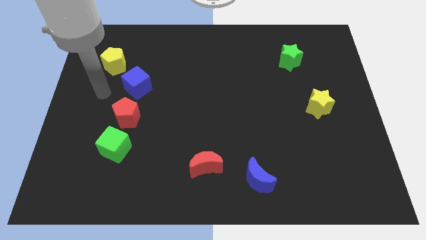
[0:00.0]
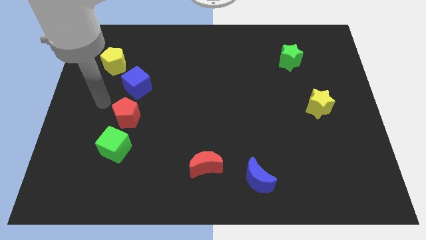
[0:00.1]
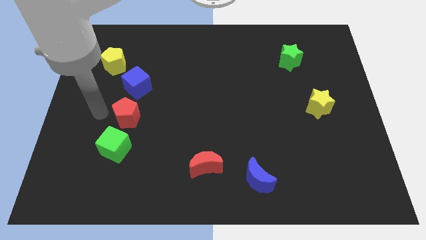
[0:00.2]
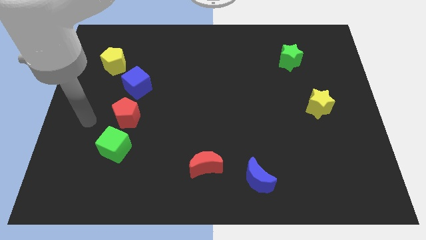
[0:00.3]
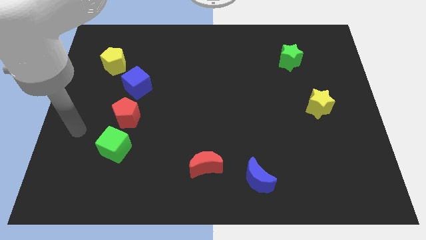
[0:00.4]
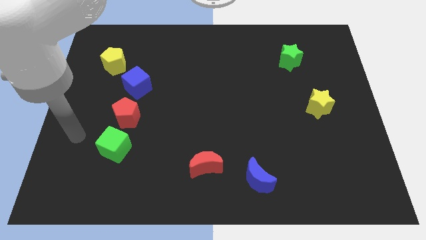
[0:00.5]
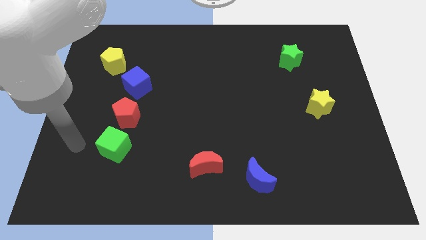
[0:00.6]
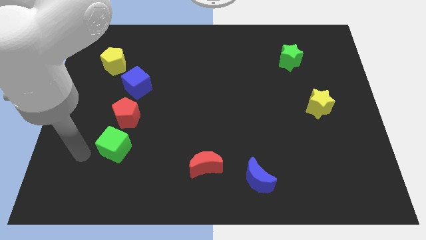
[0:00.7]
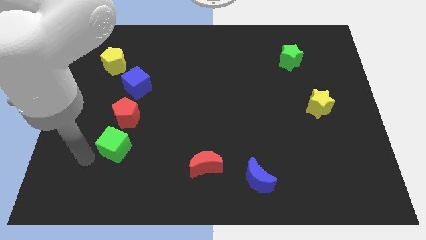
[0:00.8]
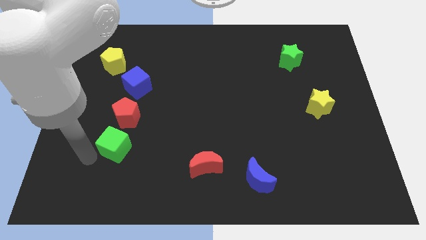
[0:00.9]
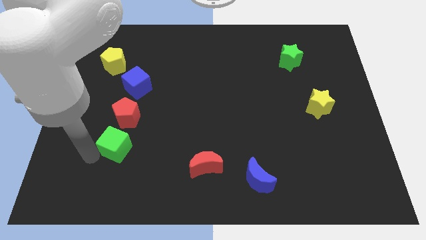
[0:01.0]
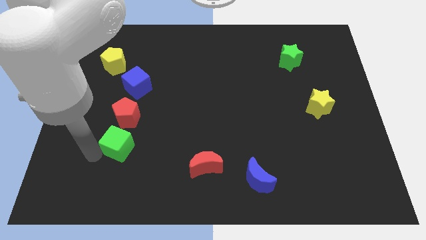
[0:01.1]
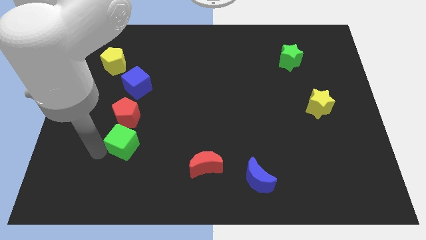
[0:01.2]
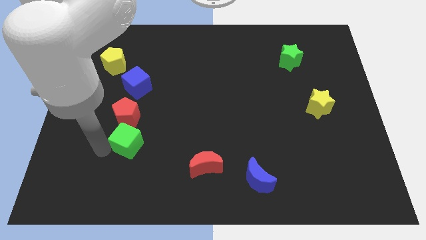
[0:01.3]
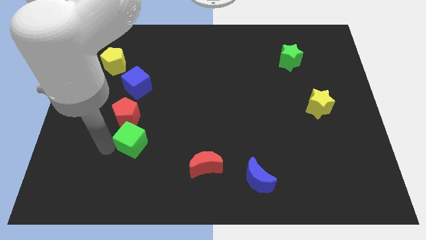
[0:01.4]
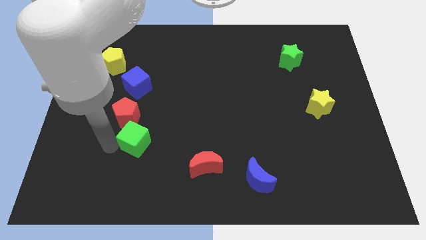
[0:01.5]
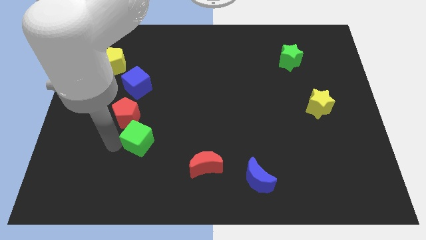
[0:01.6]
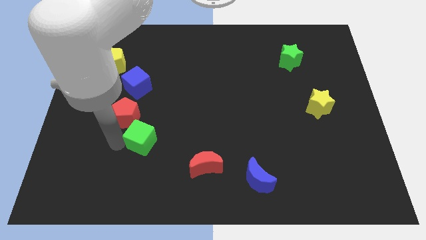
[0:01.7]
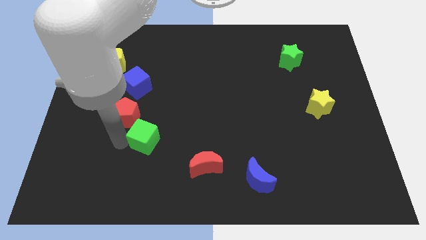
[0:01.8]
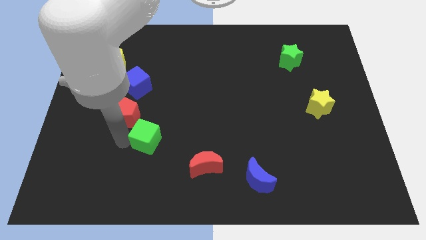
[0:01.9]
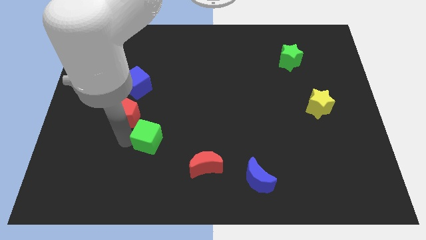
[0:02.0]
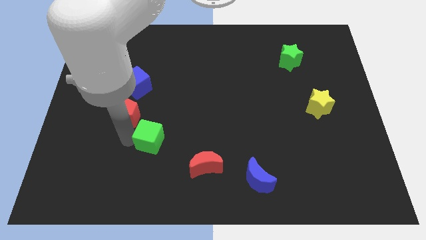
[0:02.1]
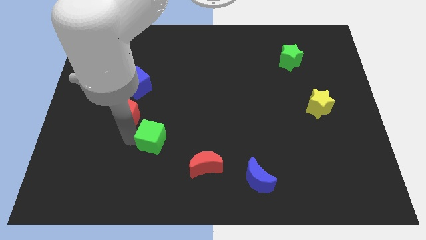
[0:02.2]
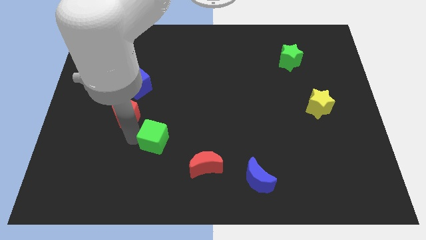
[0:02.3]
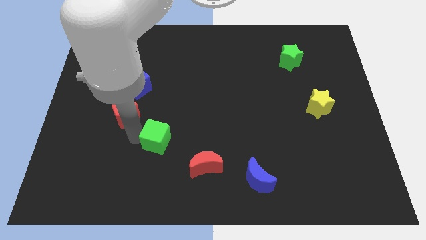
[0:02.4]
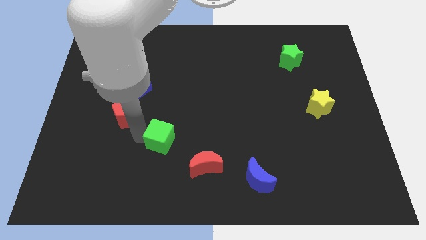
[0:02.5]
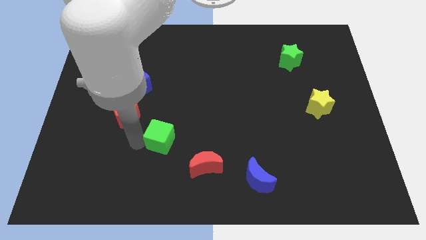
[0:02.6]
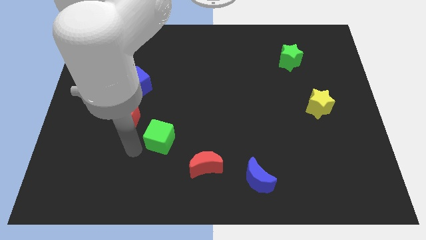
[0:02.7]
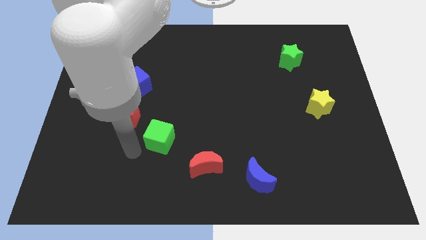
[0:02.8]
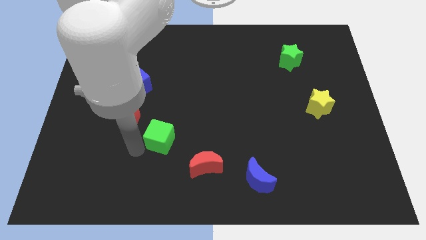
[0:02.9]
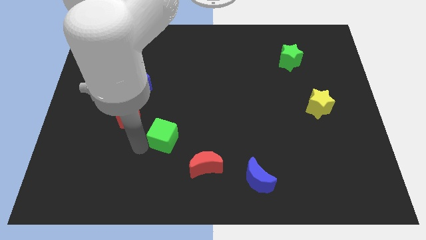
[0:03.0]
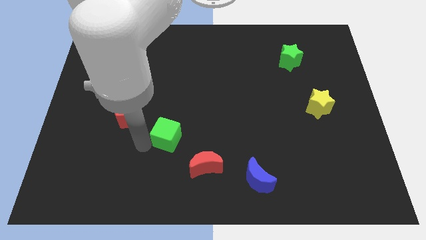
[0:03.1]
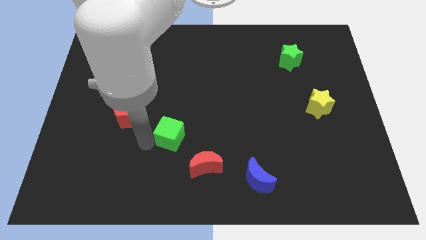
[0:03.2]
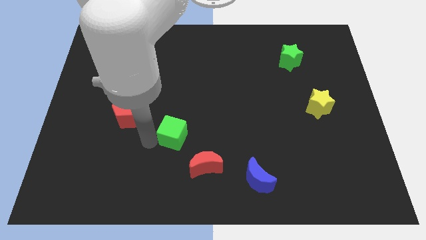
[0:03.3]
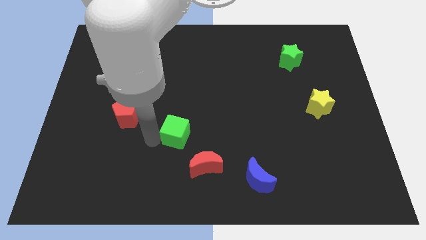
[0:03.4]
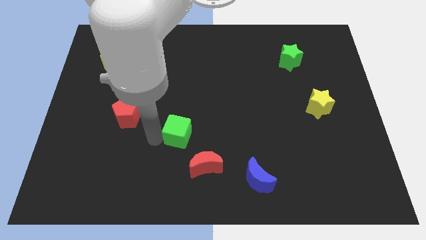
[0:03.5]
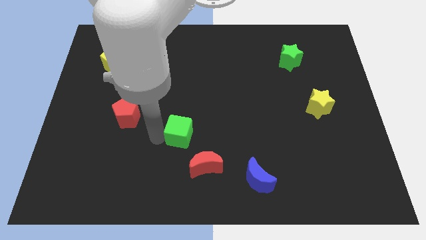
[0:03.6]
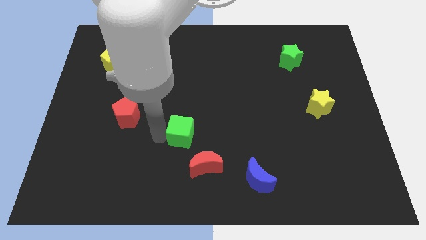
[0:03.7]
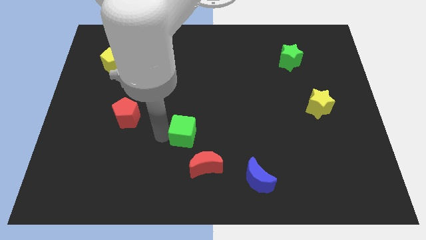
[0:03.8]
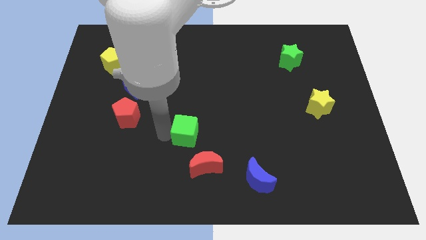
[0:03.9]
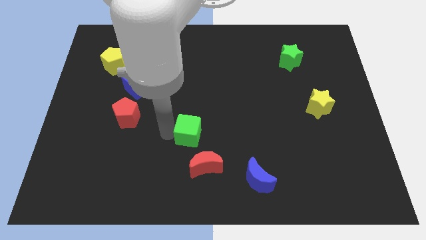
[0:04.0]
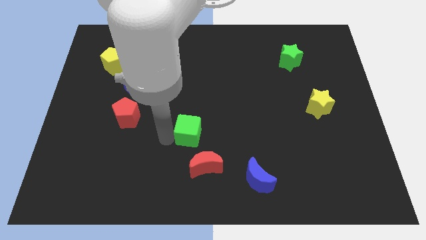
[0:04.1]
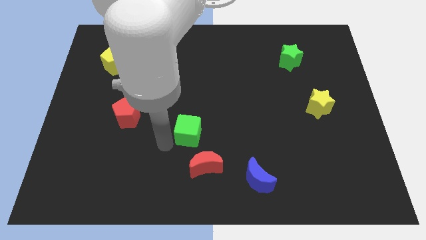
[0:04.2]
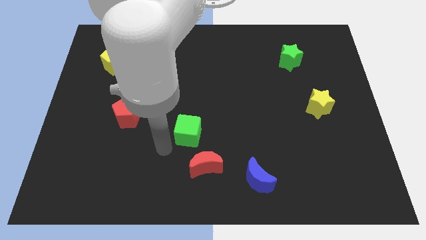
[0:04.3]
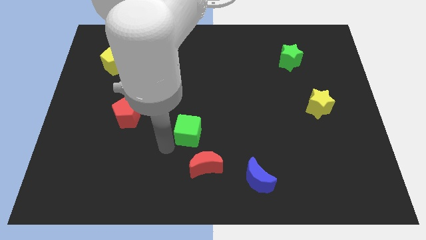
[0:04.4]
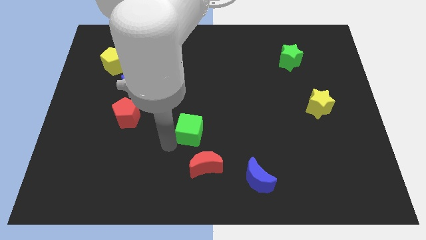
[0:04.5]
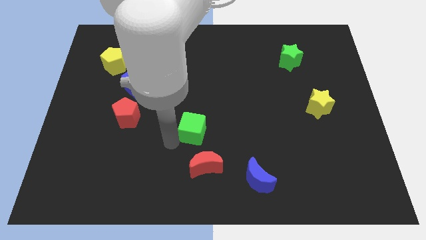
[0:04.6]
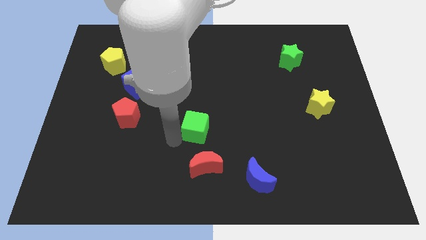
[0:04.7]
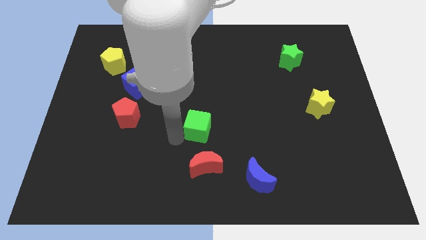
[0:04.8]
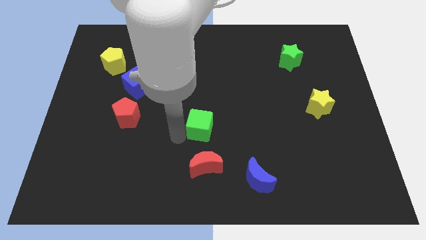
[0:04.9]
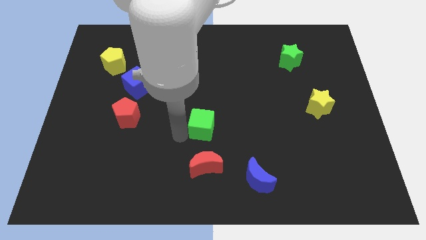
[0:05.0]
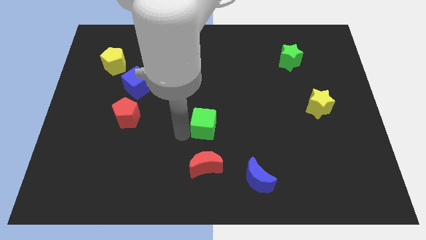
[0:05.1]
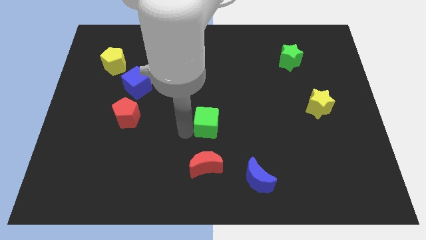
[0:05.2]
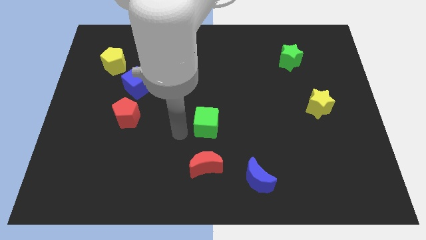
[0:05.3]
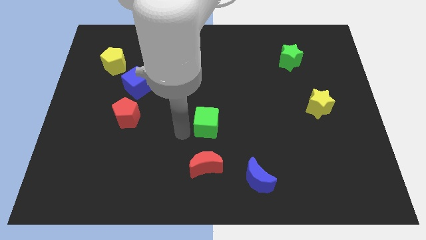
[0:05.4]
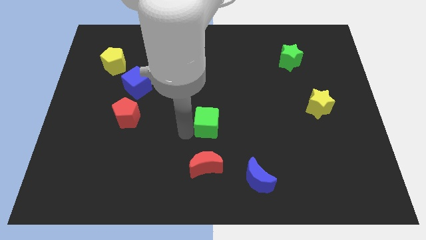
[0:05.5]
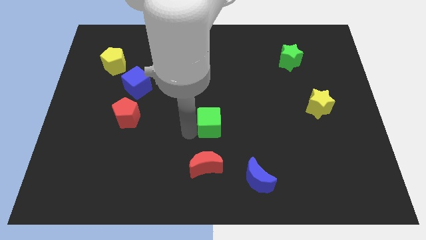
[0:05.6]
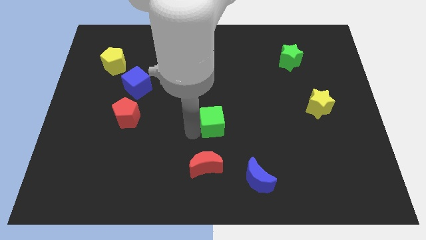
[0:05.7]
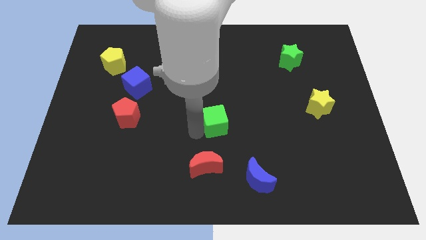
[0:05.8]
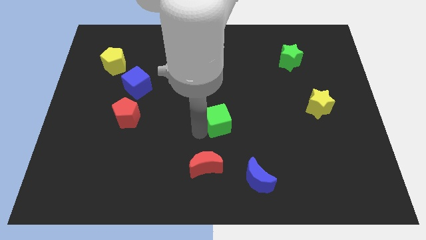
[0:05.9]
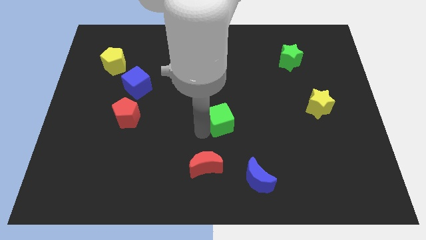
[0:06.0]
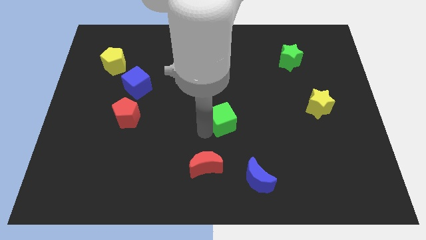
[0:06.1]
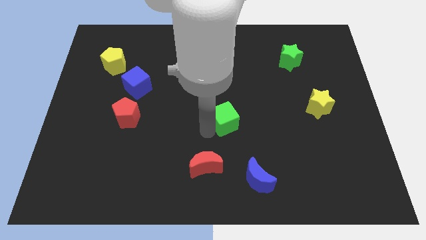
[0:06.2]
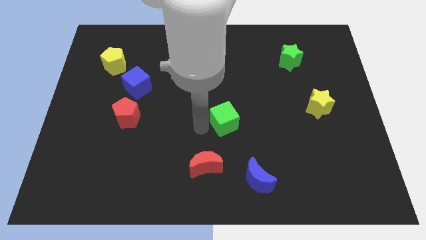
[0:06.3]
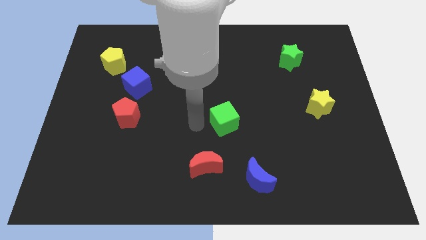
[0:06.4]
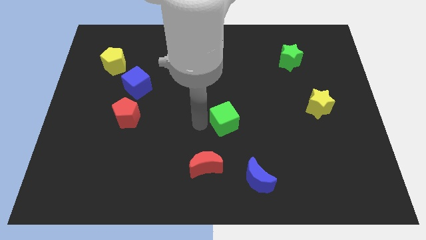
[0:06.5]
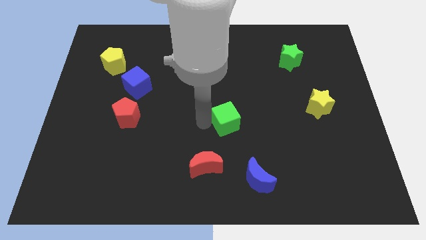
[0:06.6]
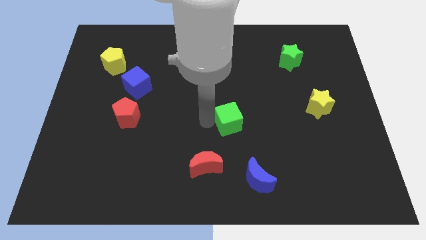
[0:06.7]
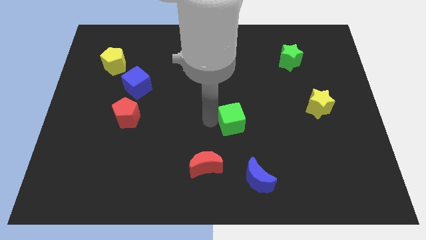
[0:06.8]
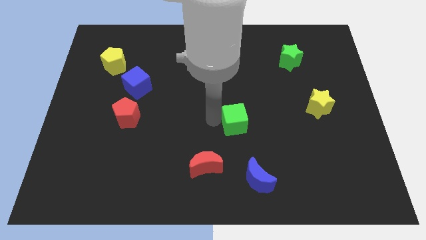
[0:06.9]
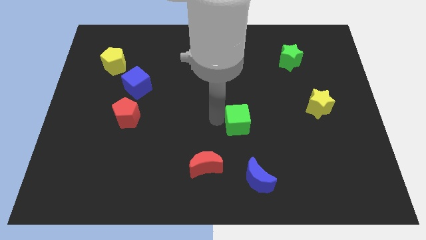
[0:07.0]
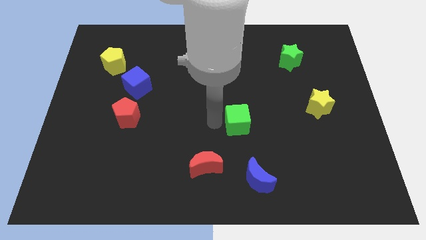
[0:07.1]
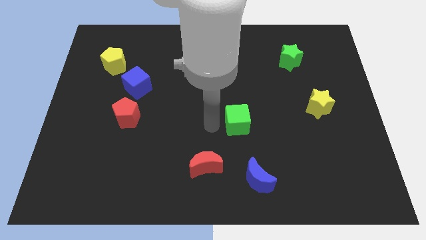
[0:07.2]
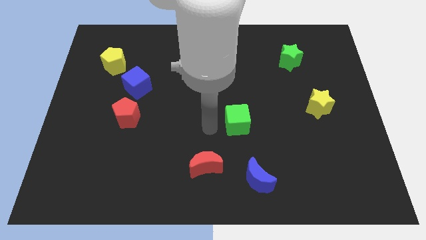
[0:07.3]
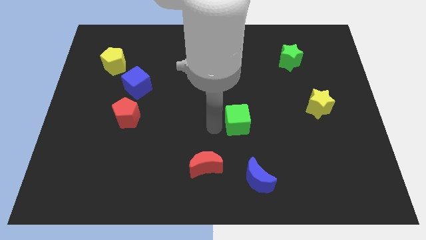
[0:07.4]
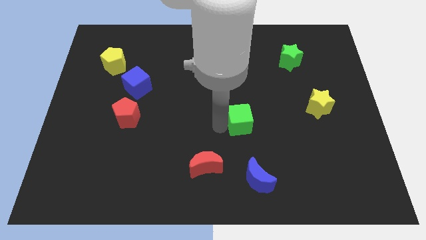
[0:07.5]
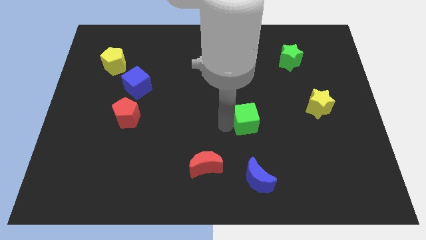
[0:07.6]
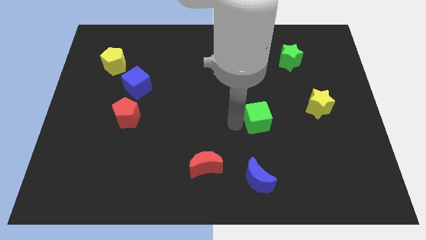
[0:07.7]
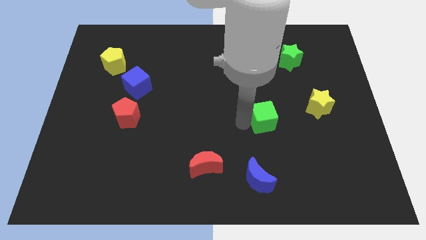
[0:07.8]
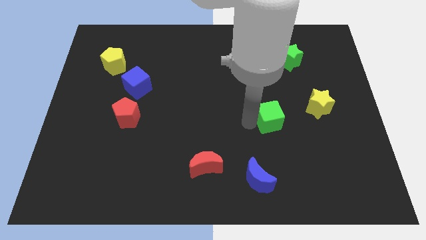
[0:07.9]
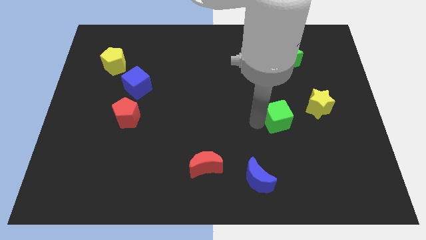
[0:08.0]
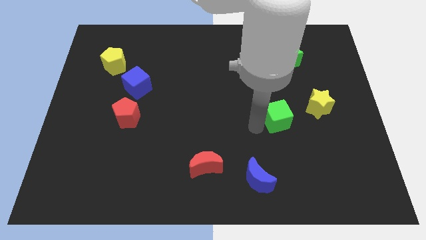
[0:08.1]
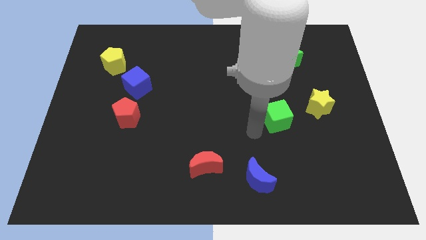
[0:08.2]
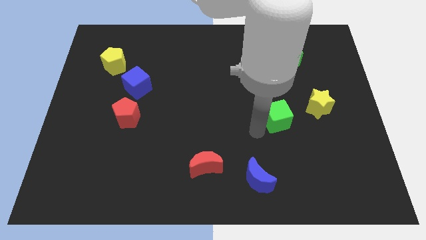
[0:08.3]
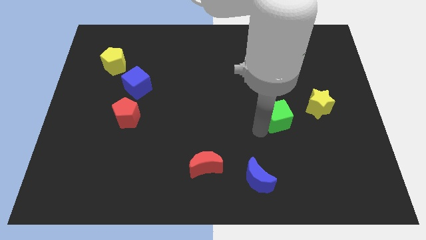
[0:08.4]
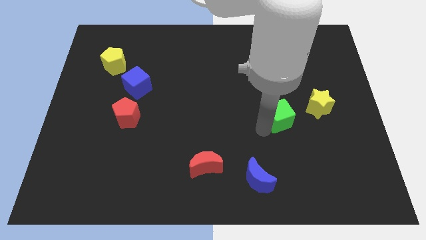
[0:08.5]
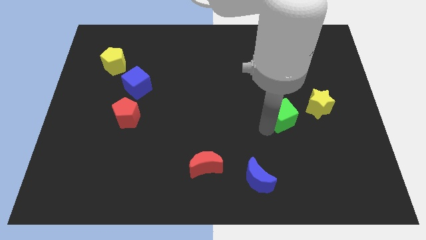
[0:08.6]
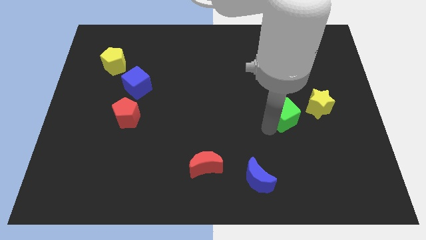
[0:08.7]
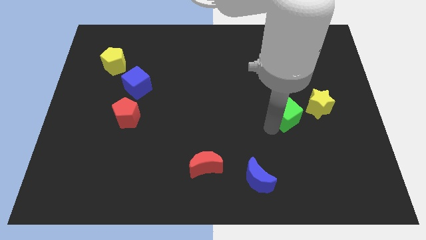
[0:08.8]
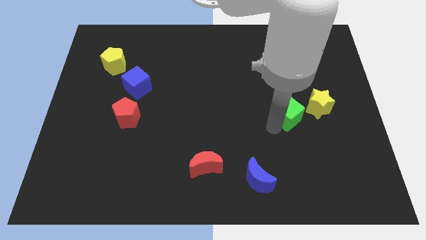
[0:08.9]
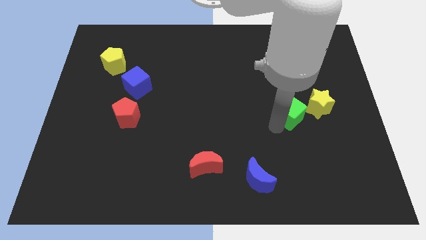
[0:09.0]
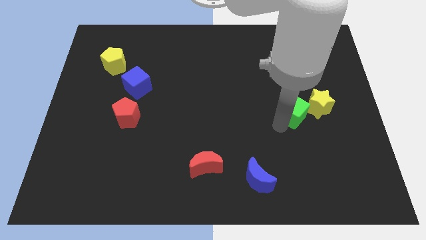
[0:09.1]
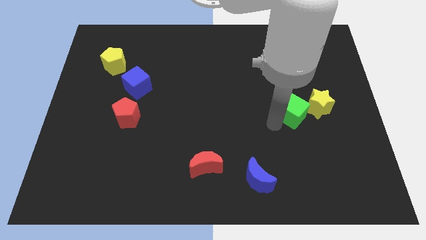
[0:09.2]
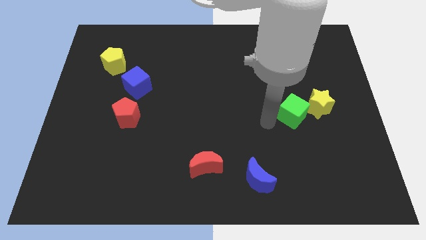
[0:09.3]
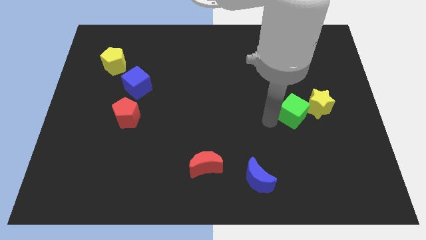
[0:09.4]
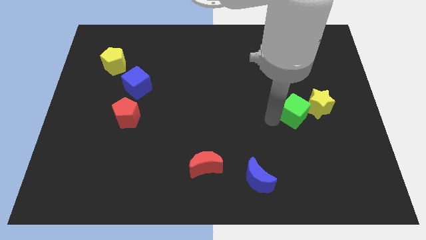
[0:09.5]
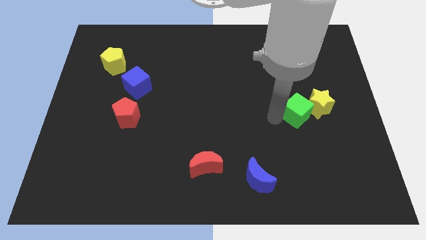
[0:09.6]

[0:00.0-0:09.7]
slide the green cube next to the yellow star
